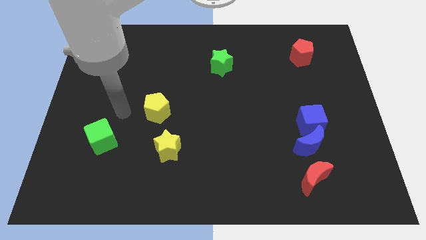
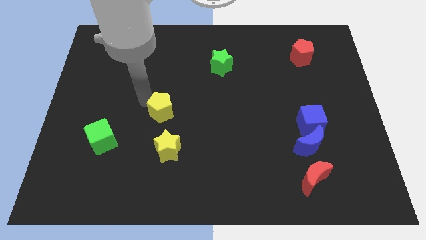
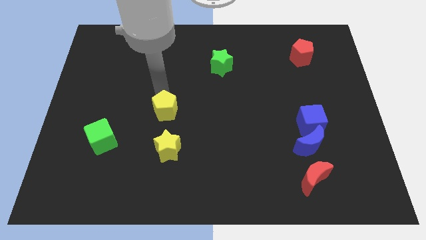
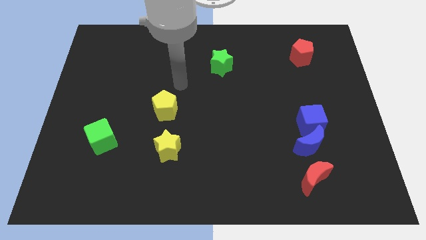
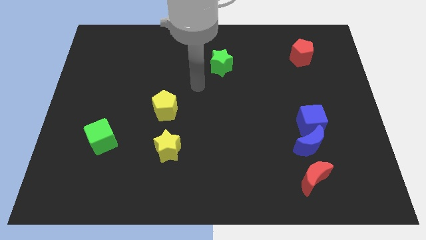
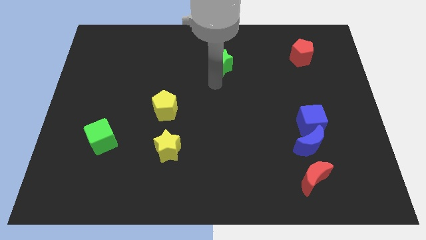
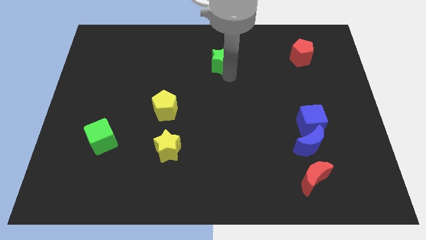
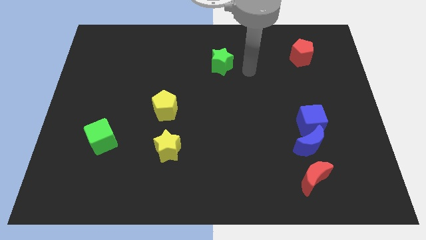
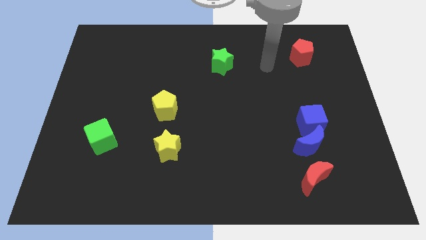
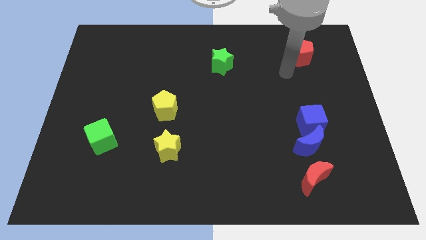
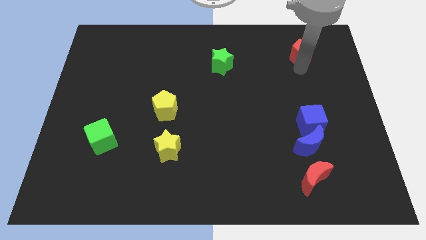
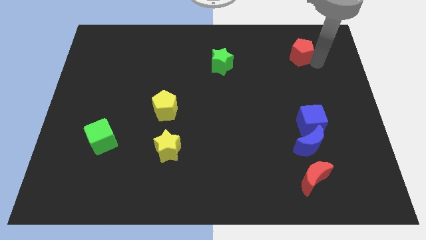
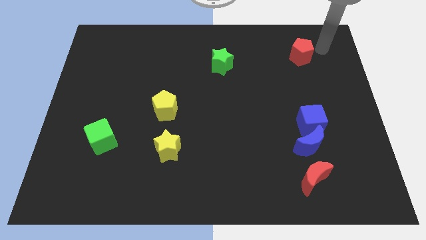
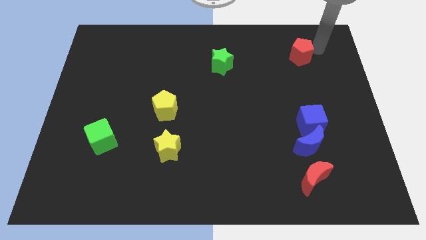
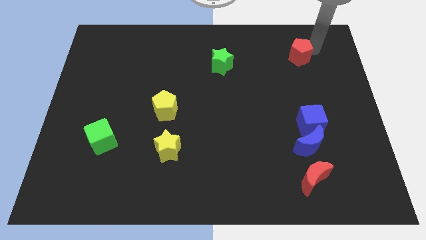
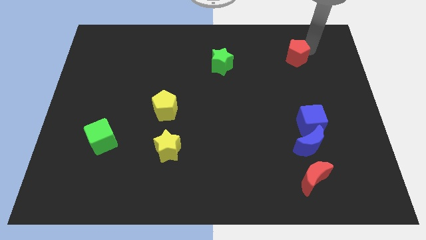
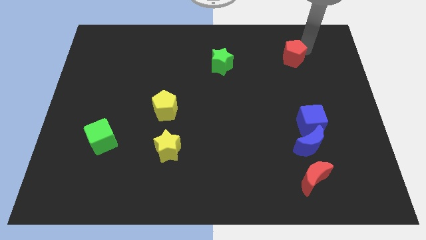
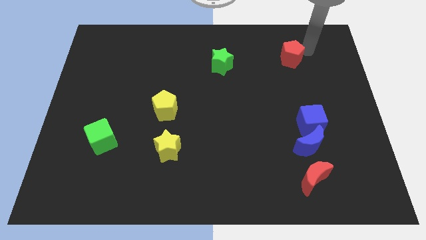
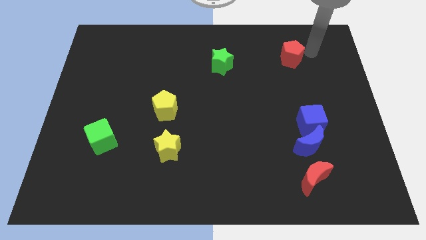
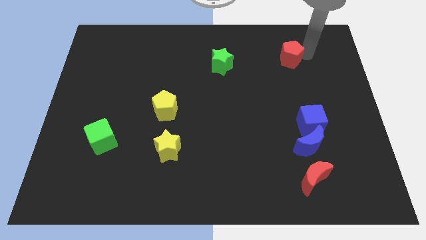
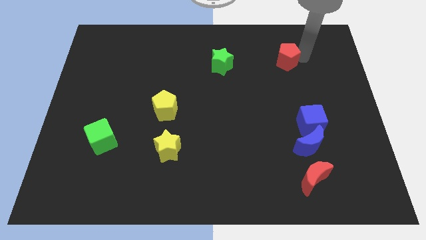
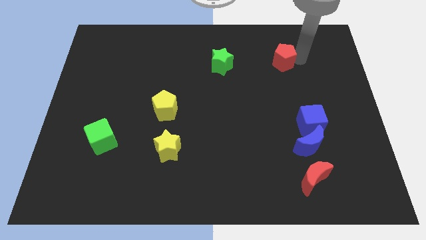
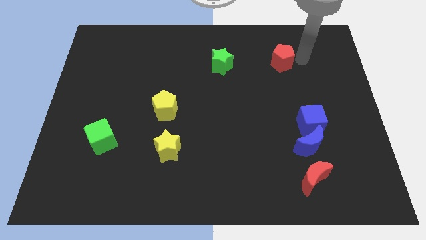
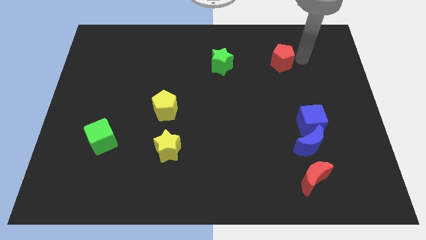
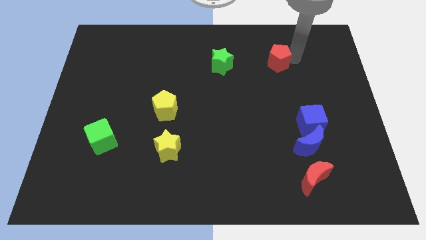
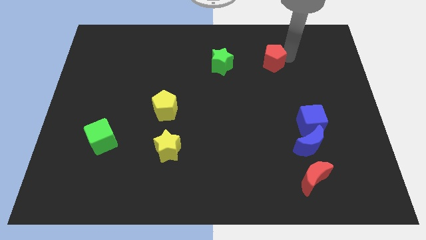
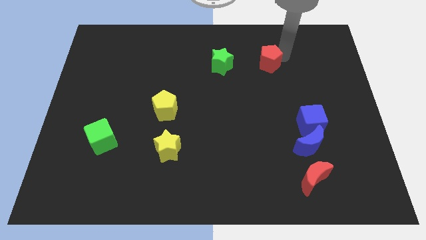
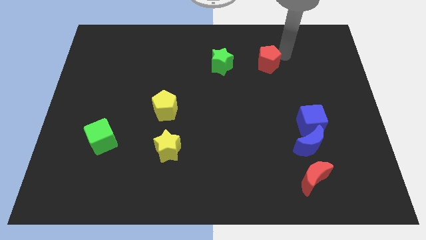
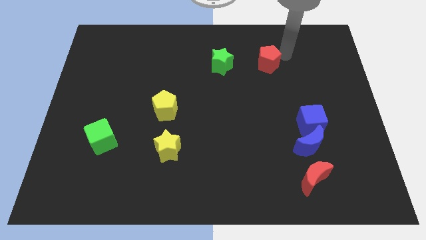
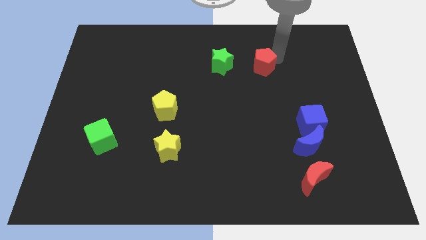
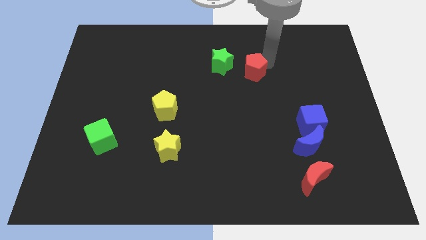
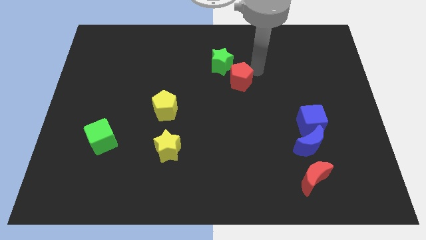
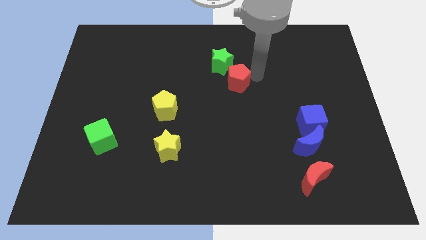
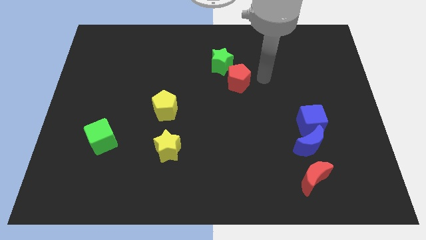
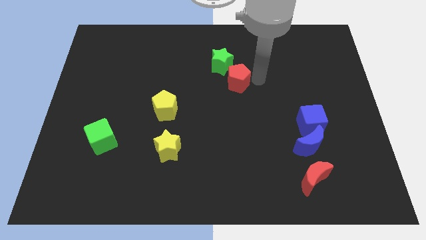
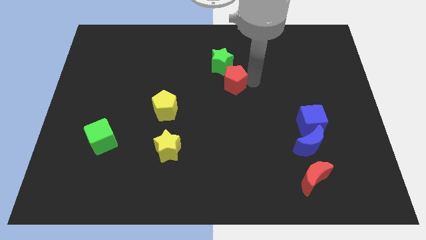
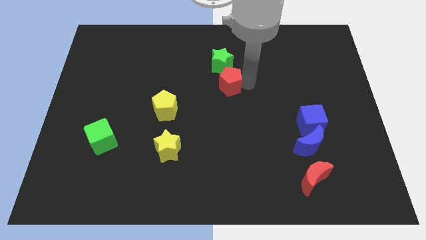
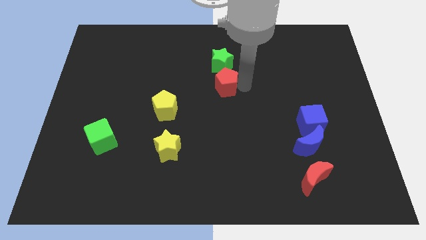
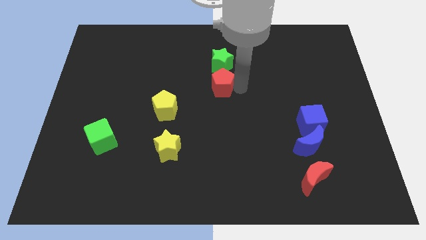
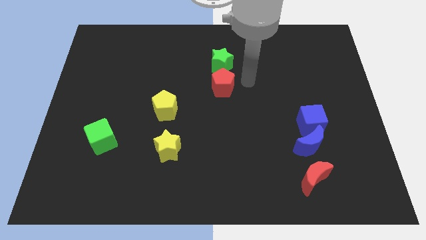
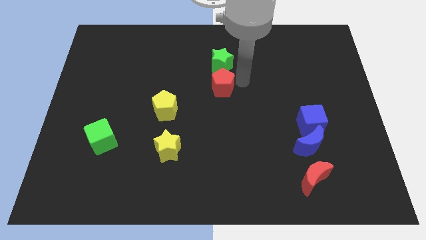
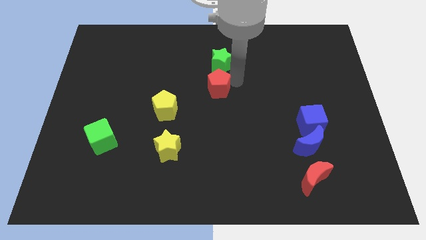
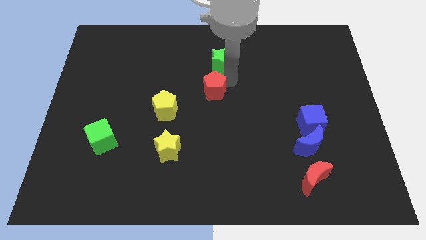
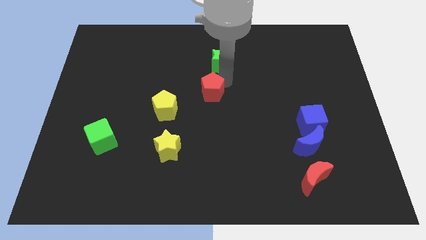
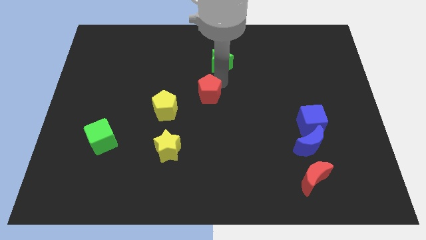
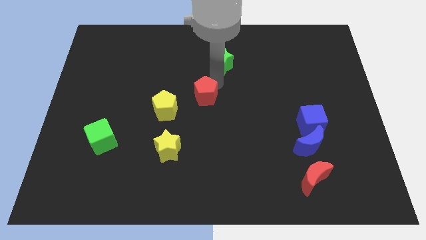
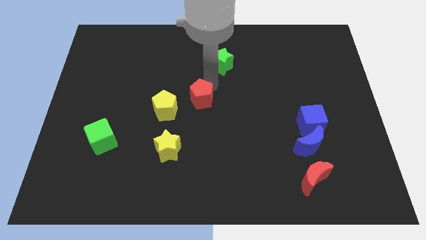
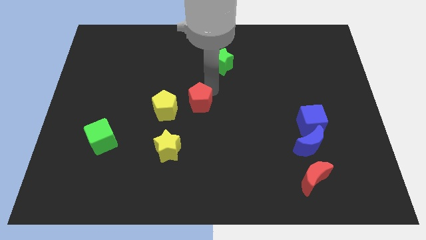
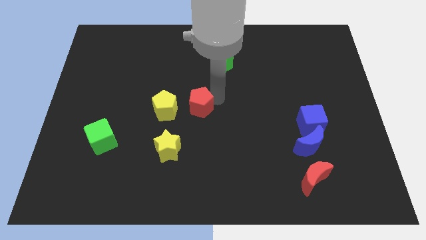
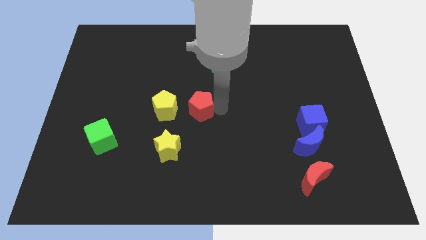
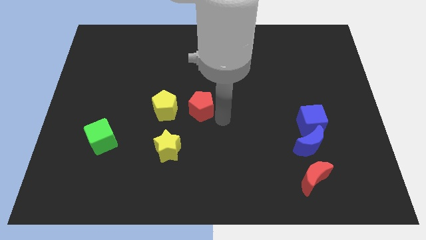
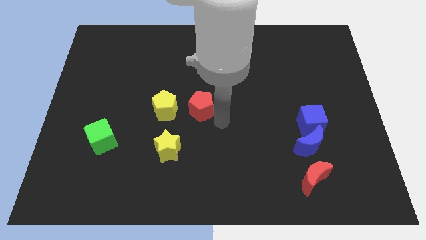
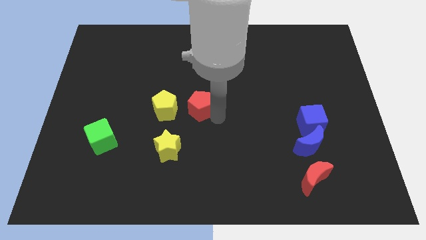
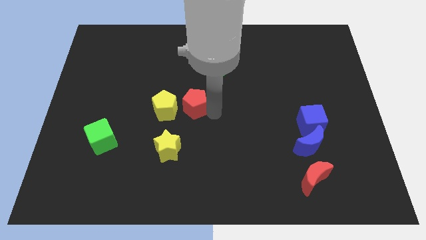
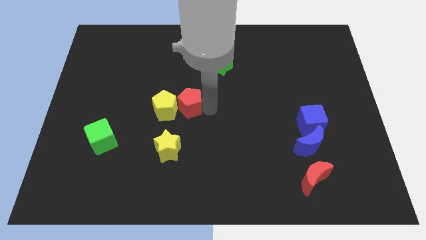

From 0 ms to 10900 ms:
slide the red pentagon next to the yellow pentagon

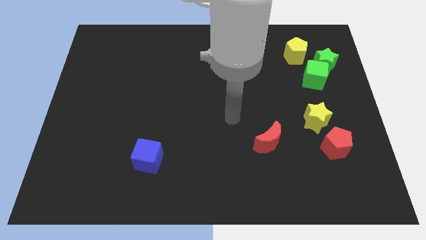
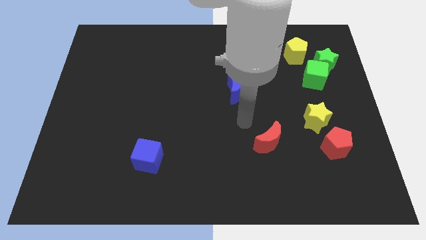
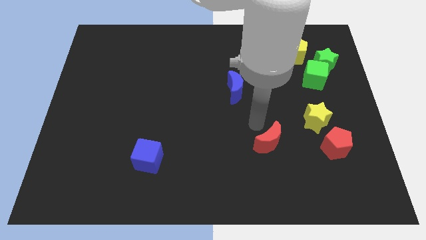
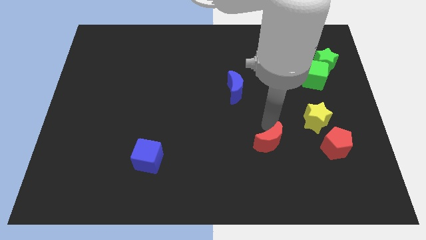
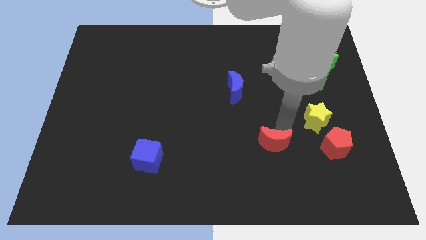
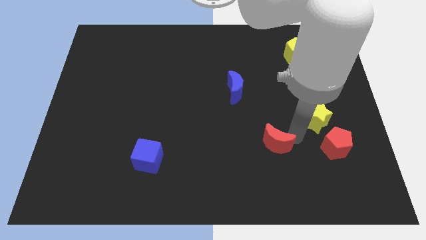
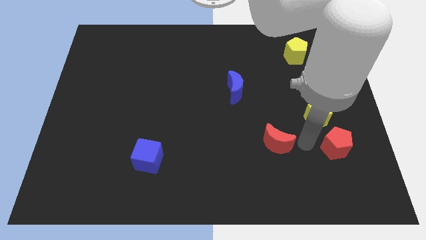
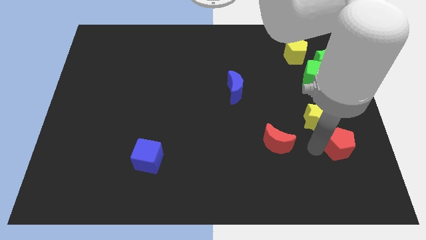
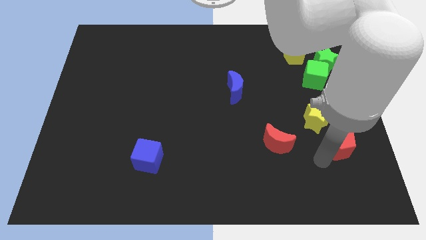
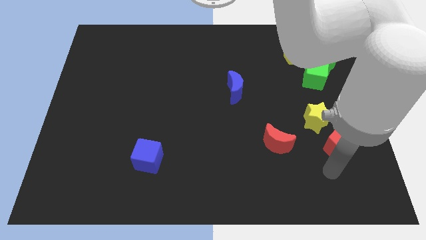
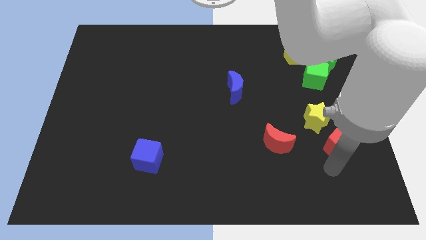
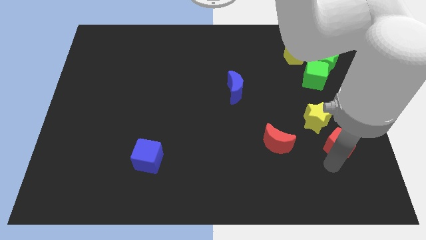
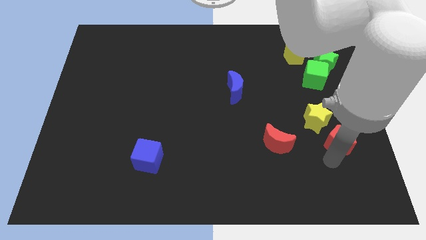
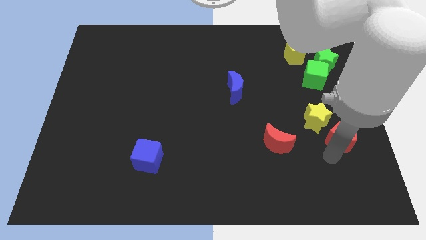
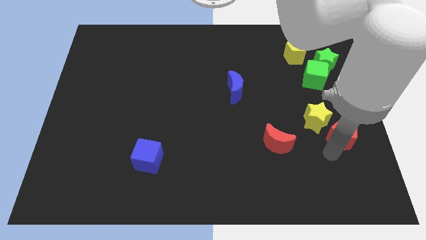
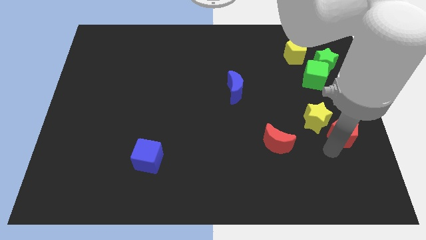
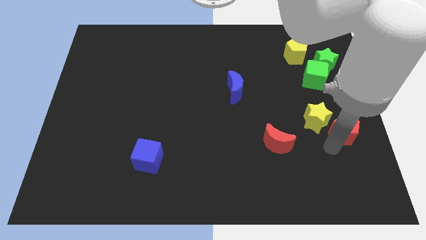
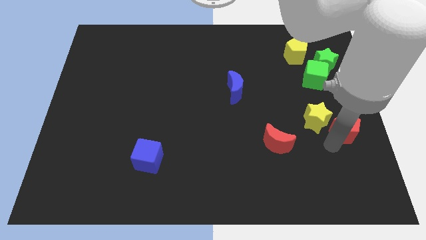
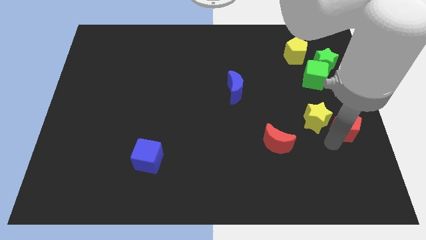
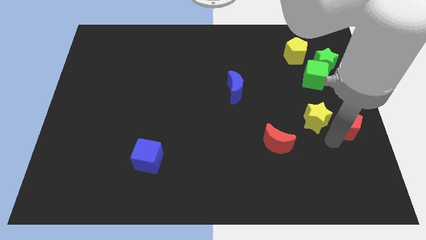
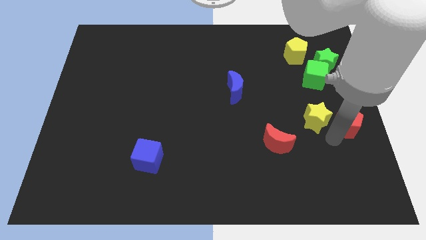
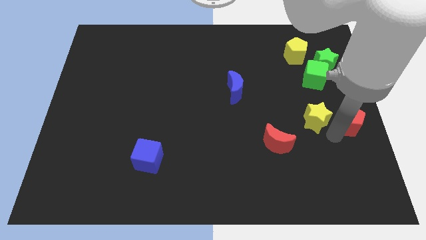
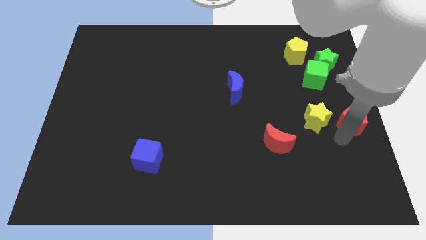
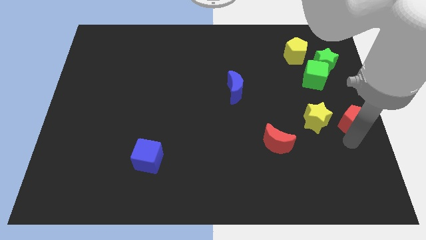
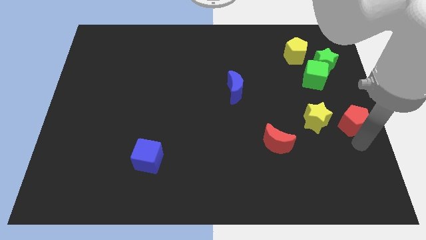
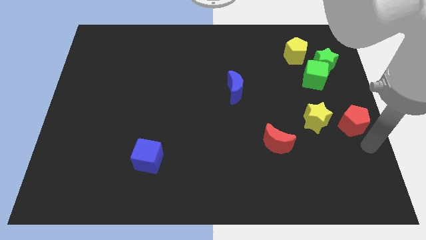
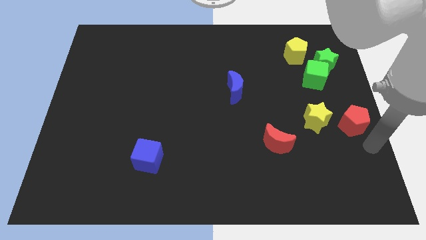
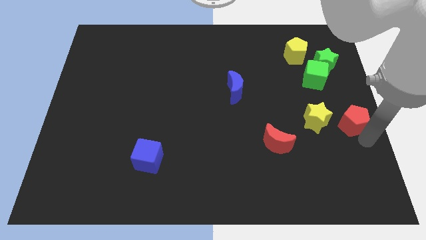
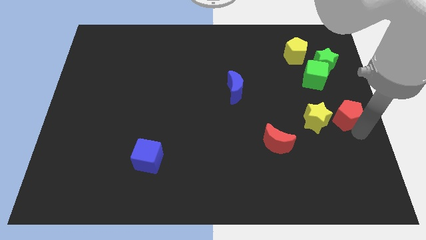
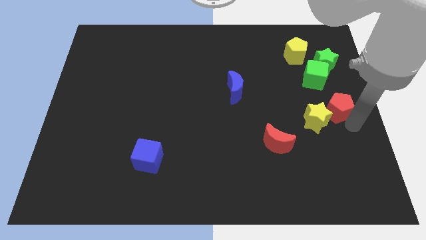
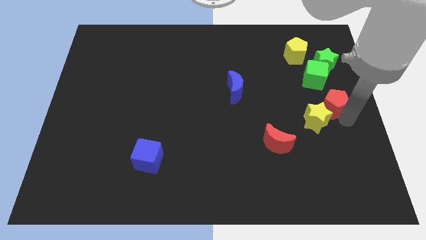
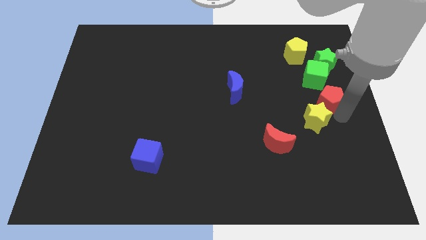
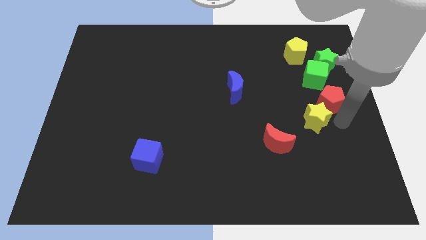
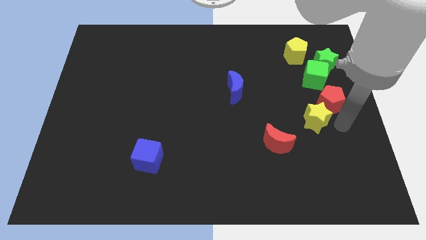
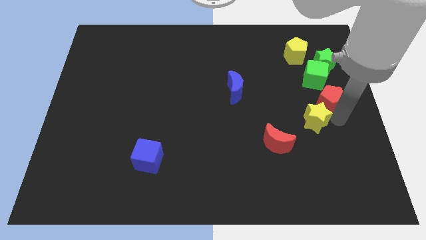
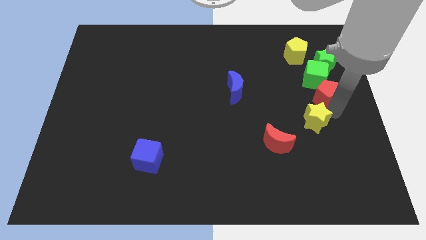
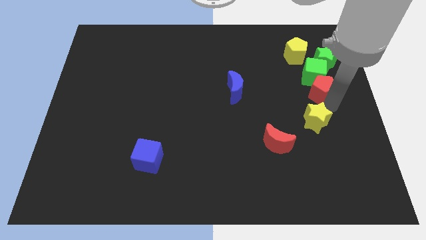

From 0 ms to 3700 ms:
move the red pentagon close to the green cube
